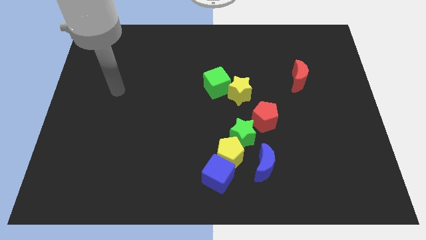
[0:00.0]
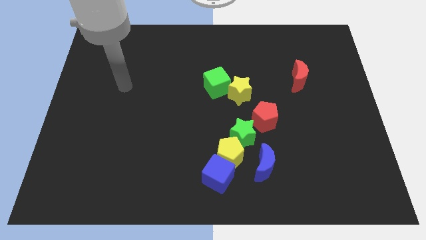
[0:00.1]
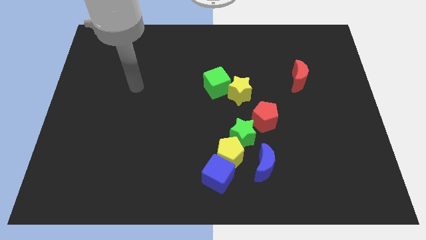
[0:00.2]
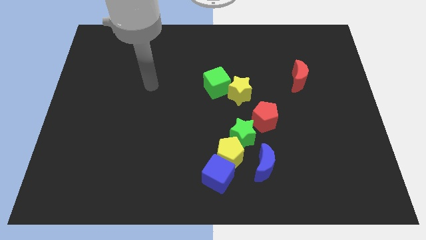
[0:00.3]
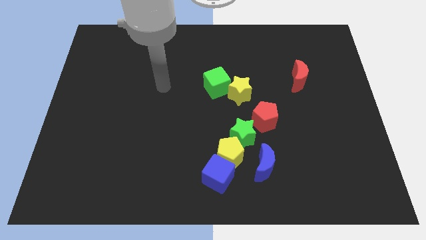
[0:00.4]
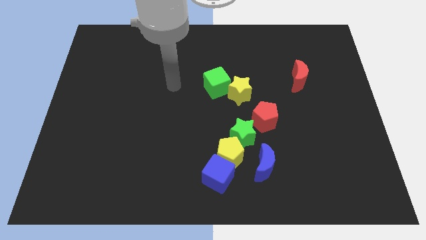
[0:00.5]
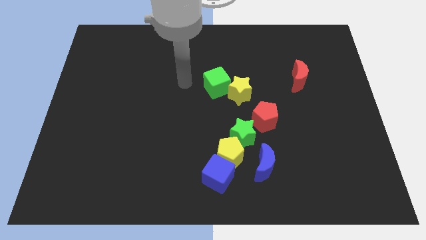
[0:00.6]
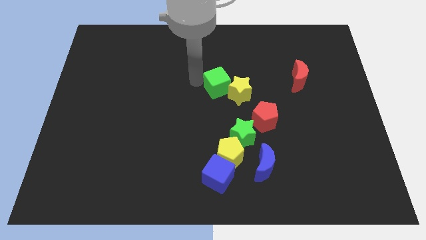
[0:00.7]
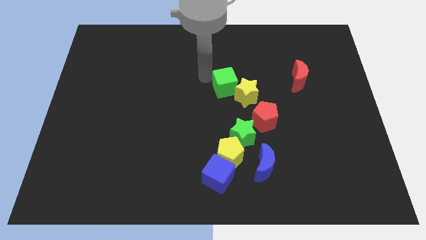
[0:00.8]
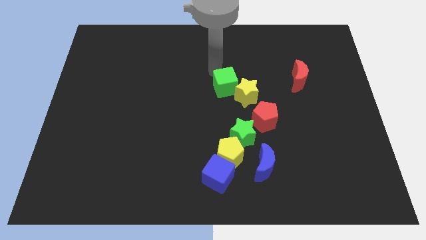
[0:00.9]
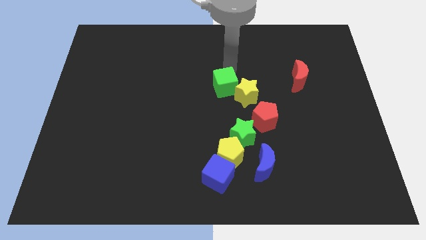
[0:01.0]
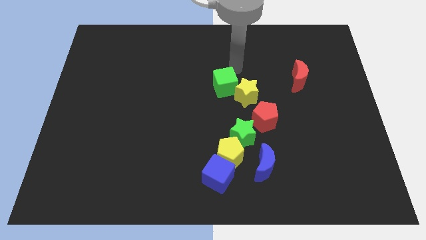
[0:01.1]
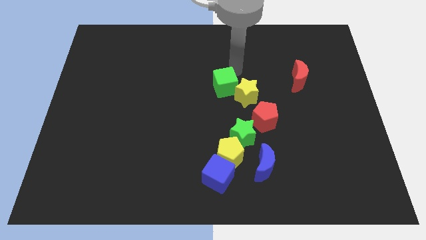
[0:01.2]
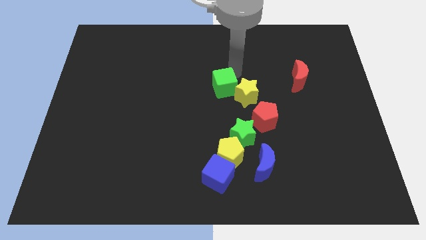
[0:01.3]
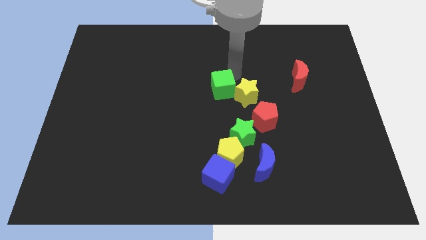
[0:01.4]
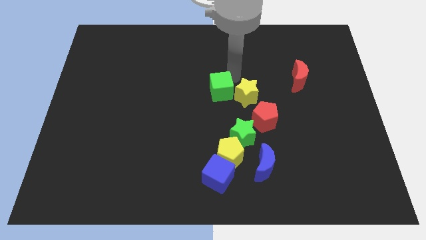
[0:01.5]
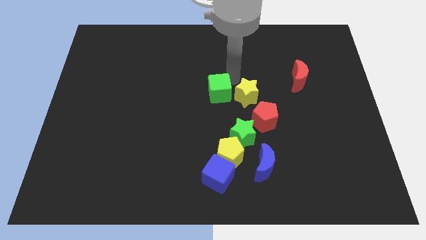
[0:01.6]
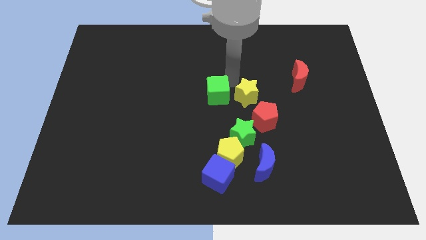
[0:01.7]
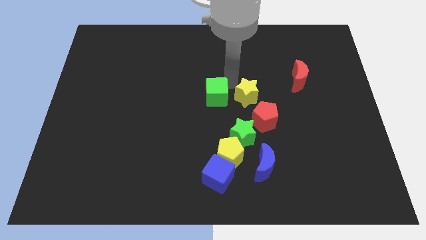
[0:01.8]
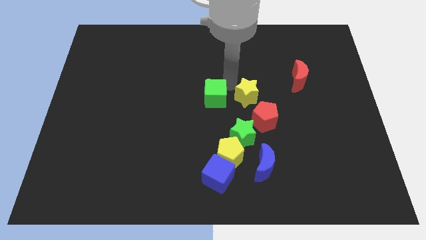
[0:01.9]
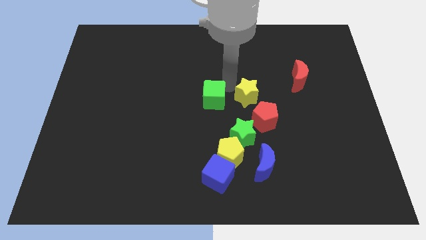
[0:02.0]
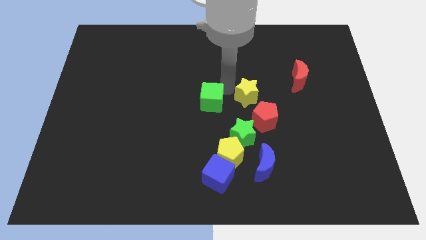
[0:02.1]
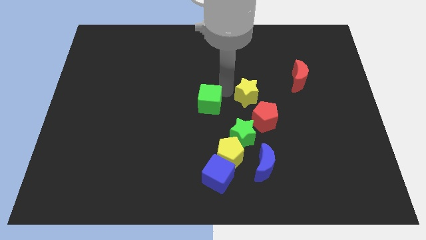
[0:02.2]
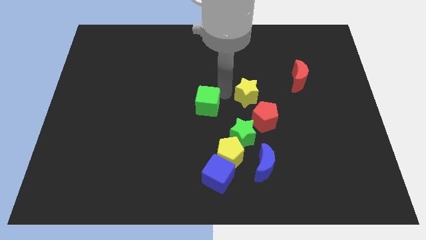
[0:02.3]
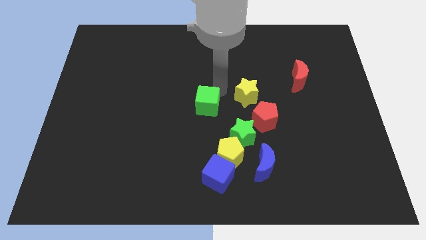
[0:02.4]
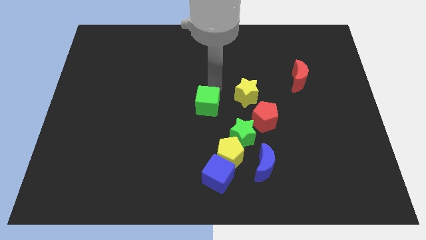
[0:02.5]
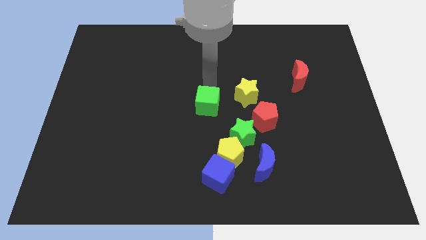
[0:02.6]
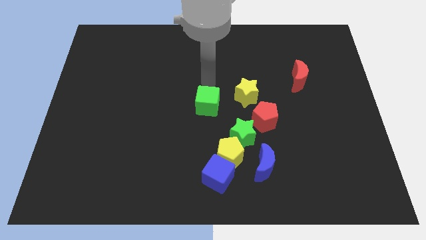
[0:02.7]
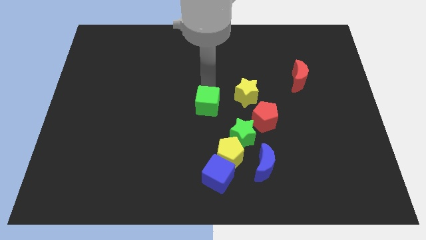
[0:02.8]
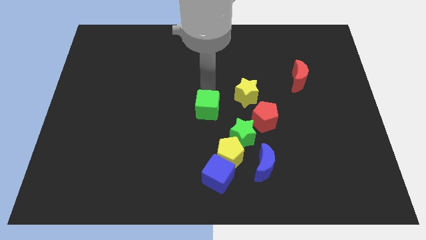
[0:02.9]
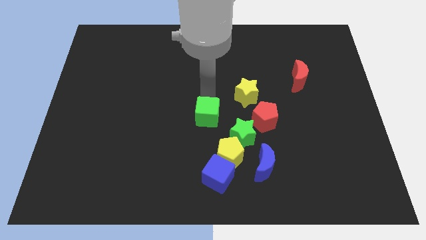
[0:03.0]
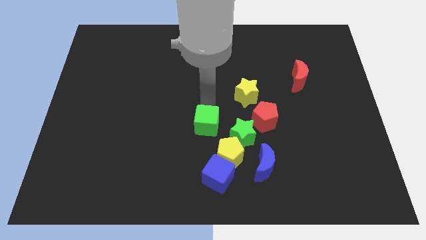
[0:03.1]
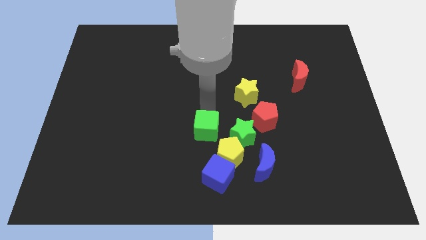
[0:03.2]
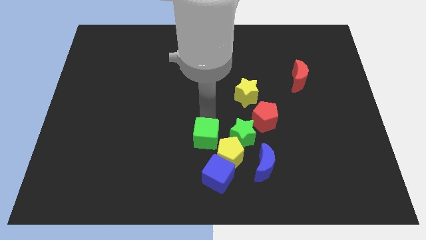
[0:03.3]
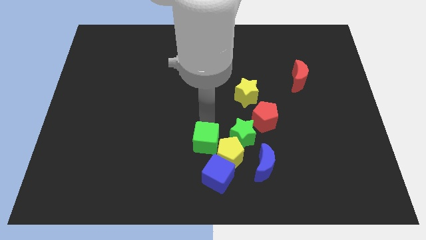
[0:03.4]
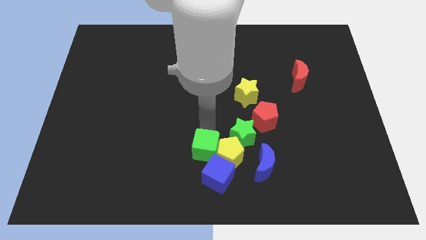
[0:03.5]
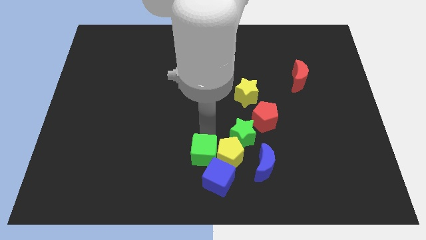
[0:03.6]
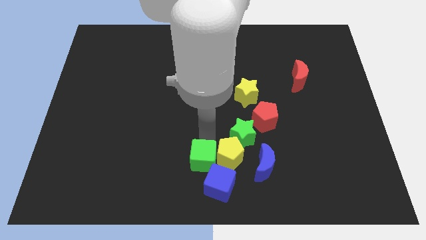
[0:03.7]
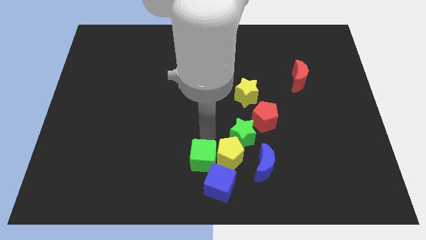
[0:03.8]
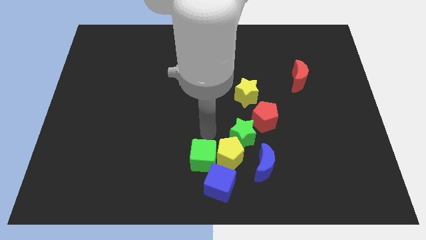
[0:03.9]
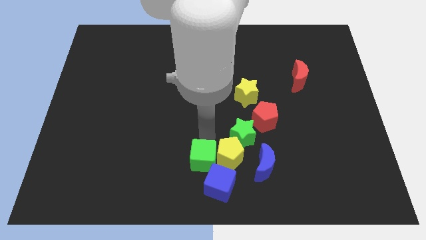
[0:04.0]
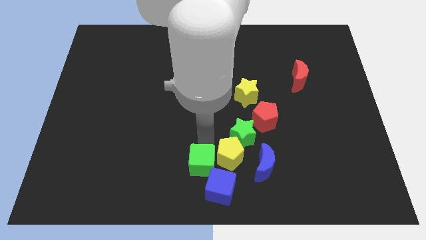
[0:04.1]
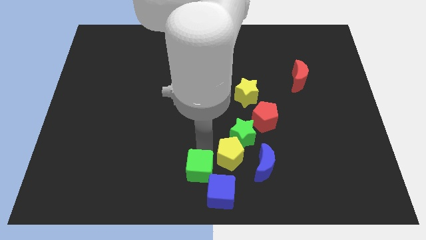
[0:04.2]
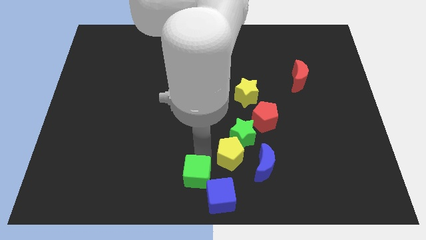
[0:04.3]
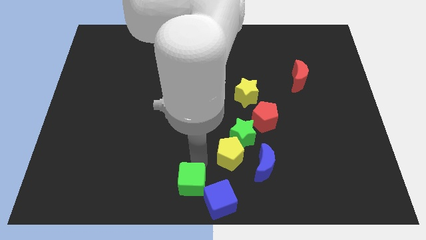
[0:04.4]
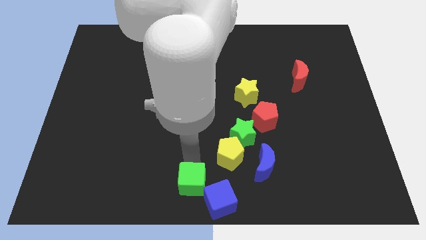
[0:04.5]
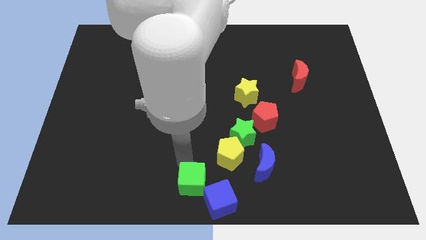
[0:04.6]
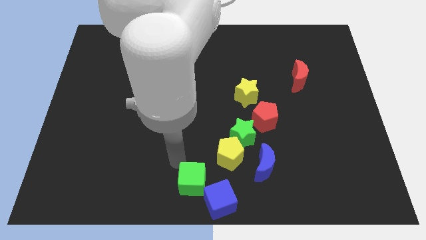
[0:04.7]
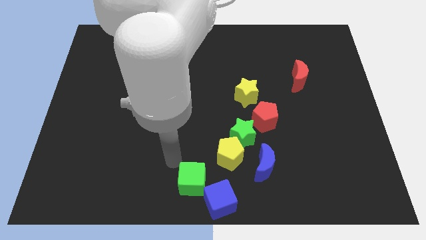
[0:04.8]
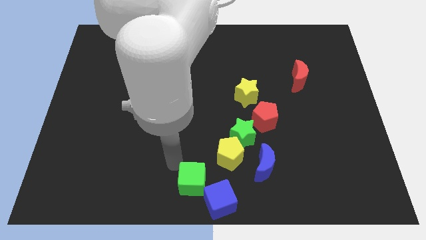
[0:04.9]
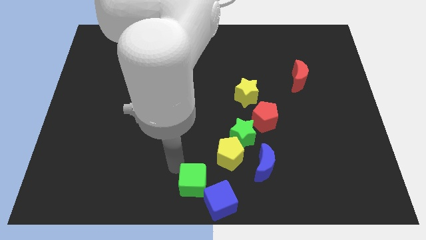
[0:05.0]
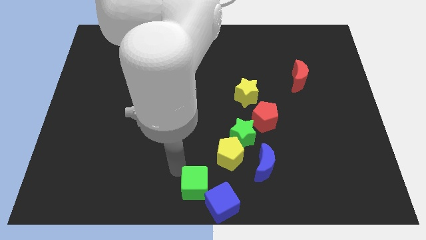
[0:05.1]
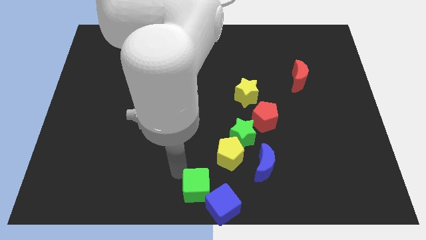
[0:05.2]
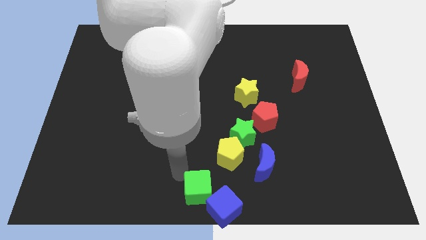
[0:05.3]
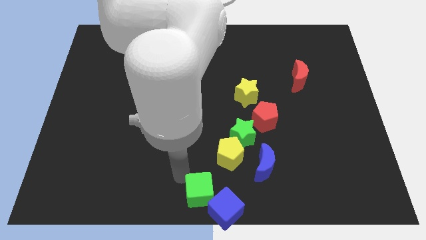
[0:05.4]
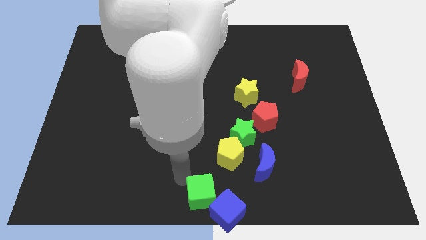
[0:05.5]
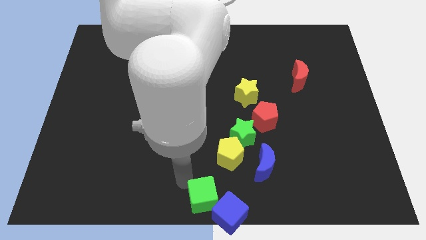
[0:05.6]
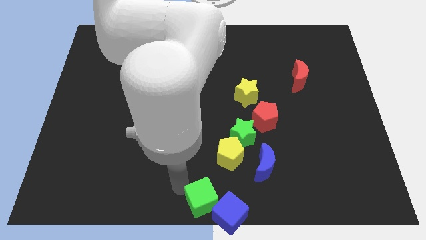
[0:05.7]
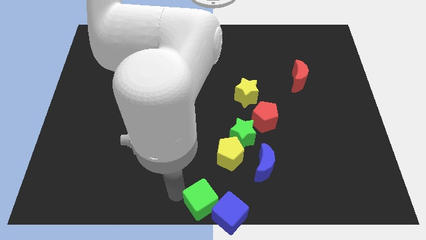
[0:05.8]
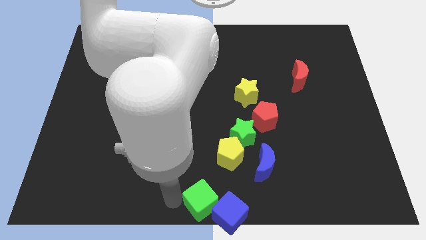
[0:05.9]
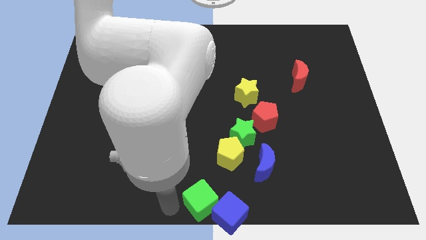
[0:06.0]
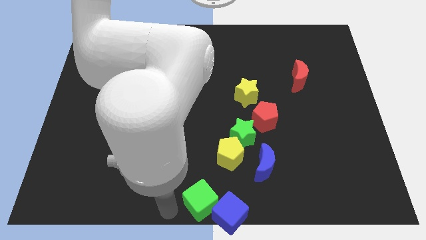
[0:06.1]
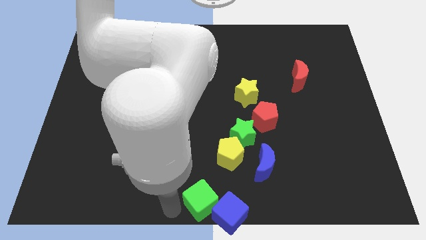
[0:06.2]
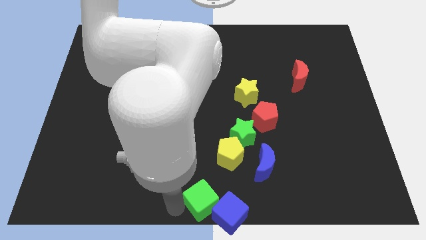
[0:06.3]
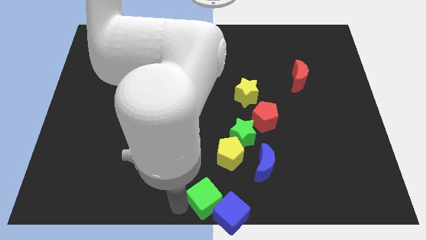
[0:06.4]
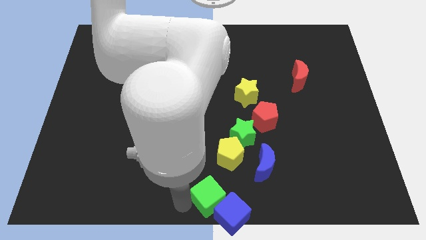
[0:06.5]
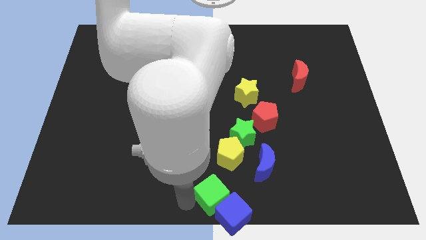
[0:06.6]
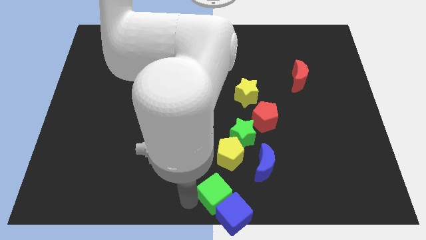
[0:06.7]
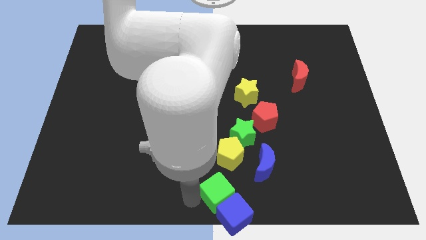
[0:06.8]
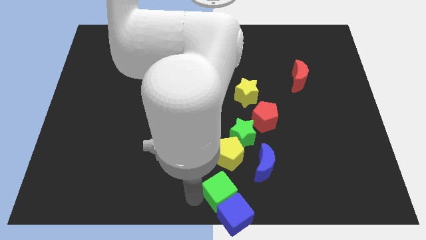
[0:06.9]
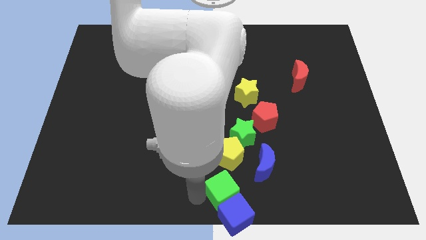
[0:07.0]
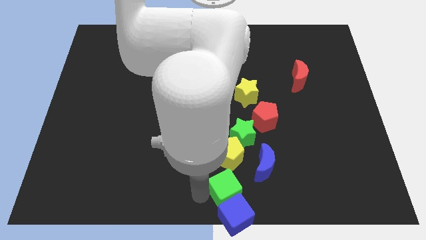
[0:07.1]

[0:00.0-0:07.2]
slide the green cube below the green star
